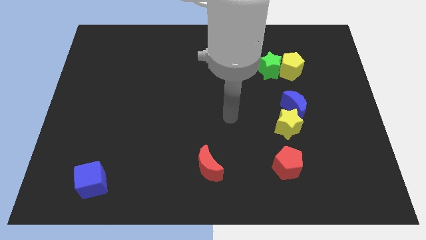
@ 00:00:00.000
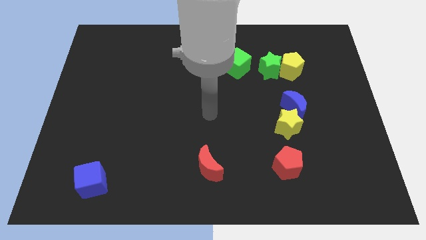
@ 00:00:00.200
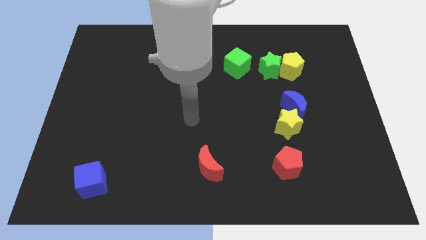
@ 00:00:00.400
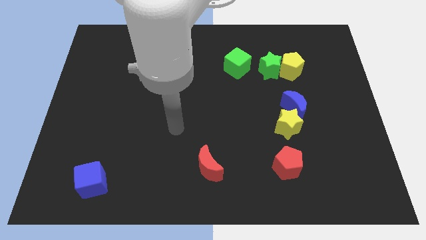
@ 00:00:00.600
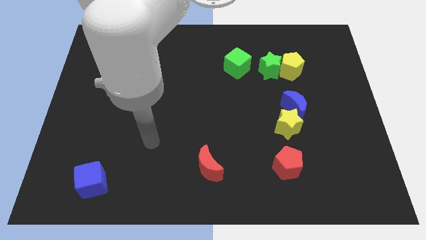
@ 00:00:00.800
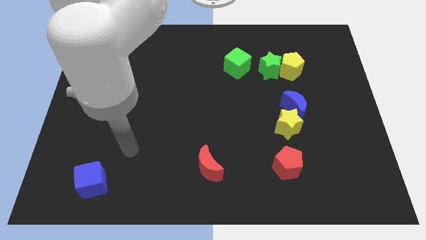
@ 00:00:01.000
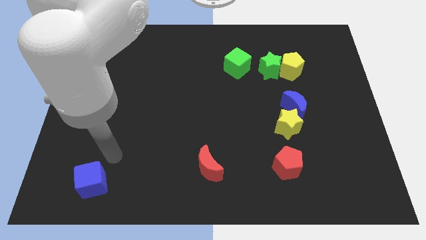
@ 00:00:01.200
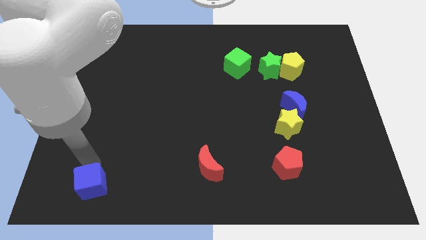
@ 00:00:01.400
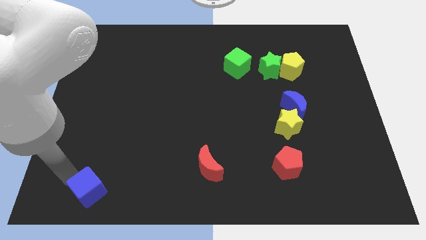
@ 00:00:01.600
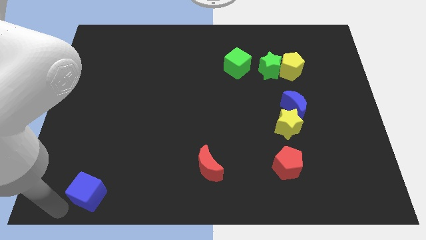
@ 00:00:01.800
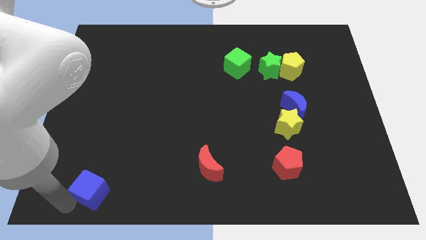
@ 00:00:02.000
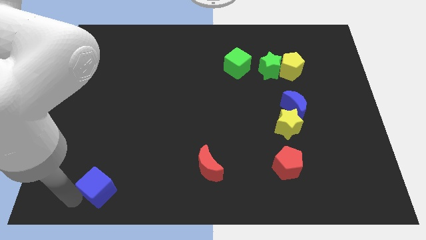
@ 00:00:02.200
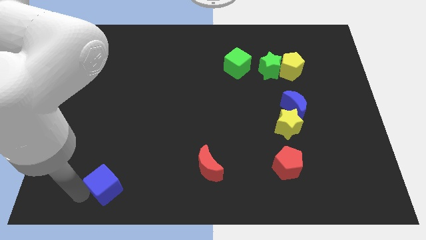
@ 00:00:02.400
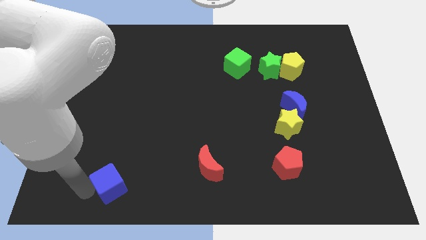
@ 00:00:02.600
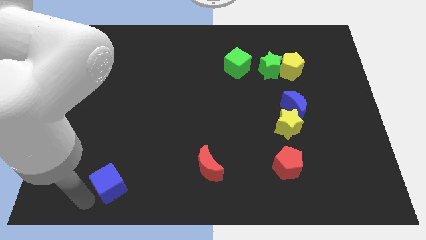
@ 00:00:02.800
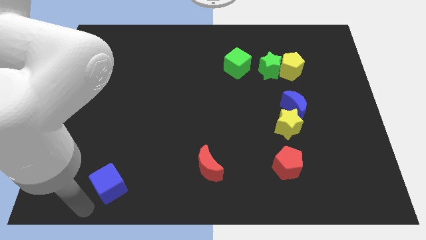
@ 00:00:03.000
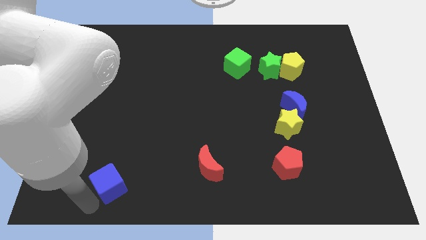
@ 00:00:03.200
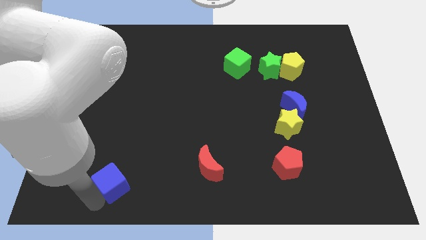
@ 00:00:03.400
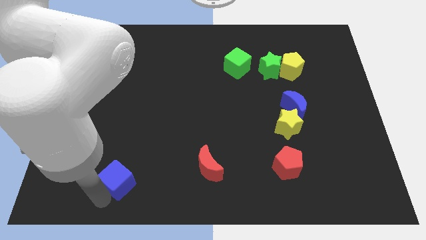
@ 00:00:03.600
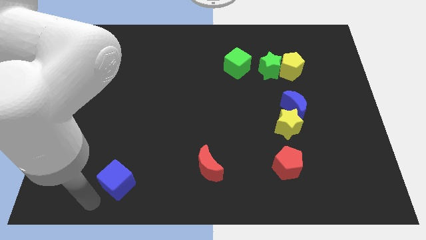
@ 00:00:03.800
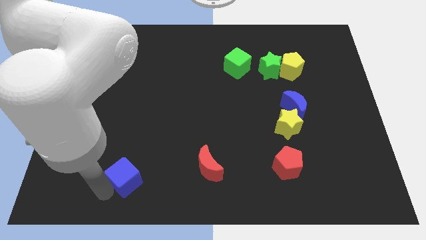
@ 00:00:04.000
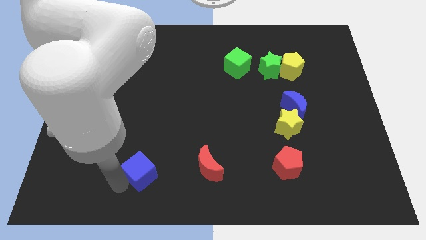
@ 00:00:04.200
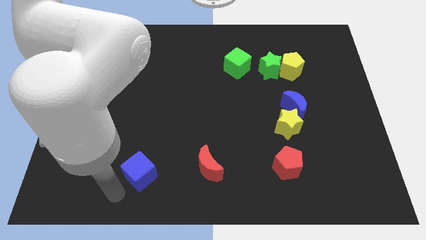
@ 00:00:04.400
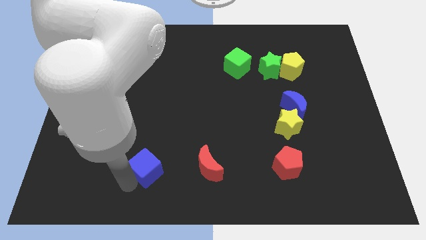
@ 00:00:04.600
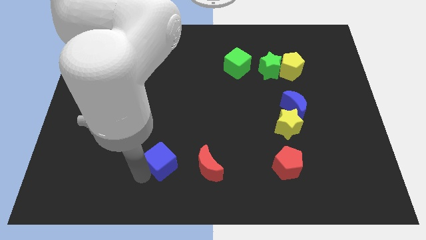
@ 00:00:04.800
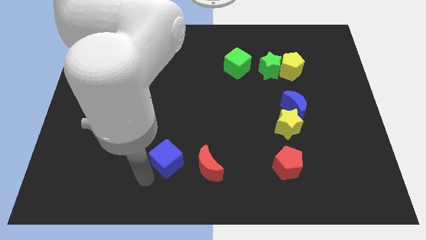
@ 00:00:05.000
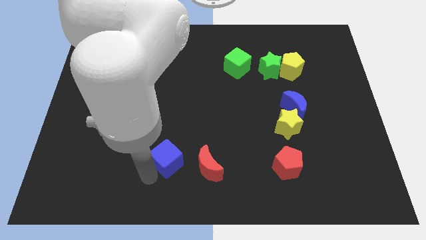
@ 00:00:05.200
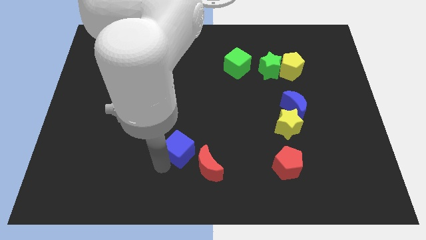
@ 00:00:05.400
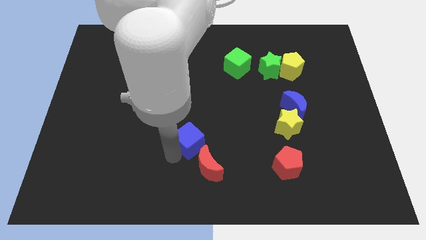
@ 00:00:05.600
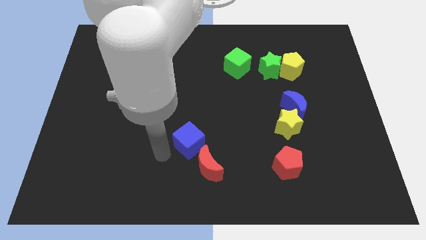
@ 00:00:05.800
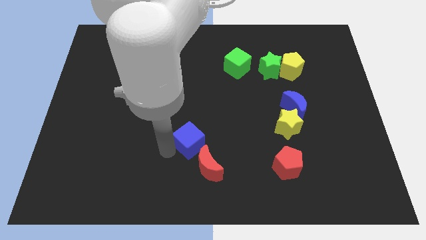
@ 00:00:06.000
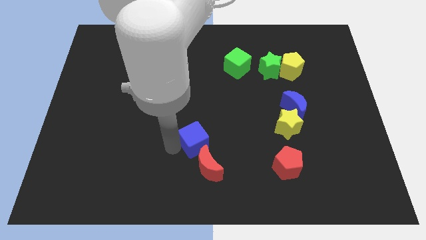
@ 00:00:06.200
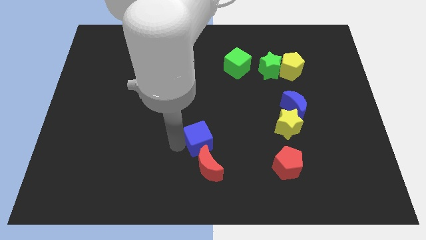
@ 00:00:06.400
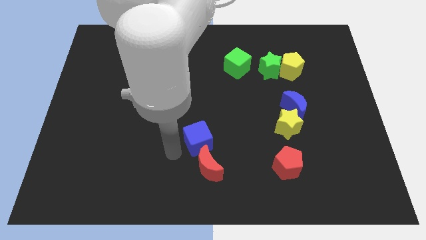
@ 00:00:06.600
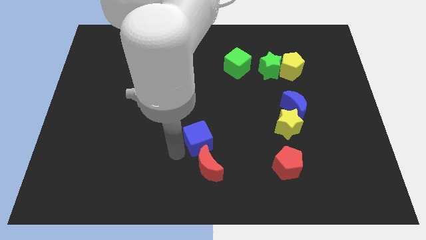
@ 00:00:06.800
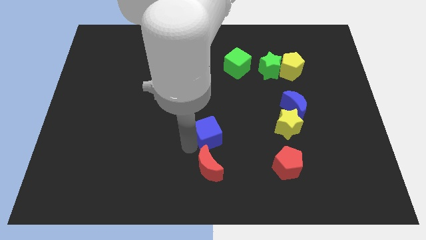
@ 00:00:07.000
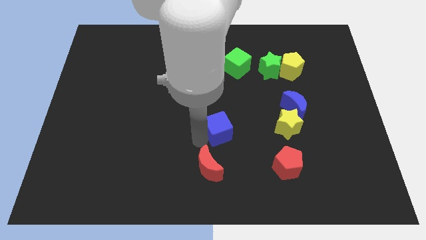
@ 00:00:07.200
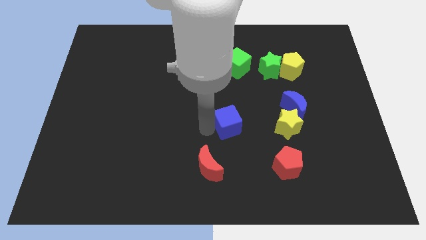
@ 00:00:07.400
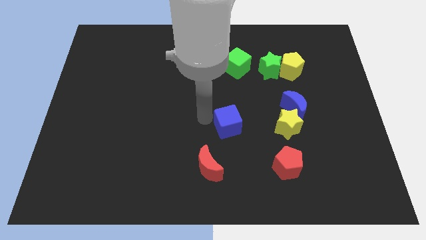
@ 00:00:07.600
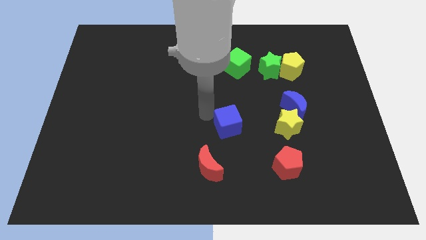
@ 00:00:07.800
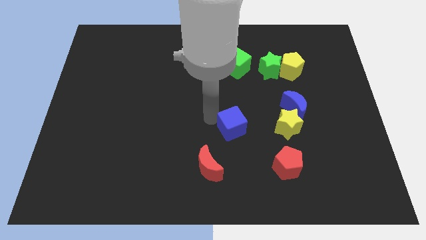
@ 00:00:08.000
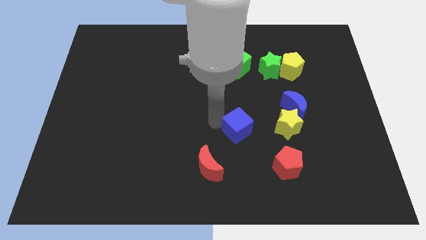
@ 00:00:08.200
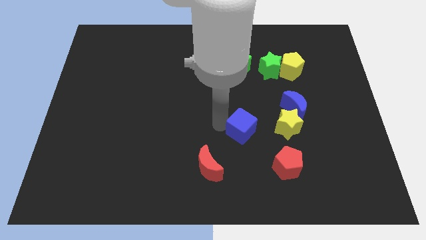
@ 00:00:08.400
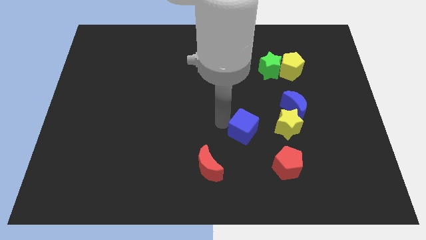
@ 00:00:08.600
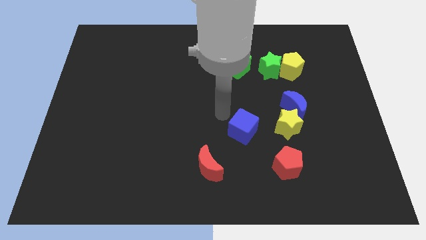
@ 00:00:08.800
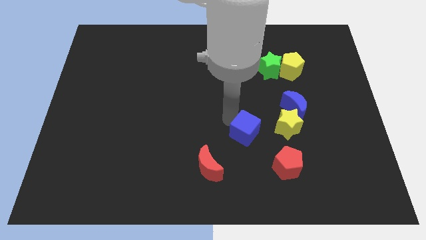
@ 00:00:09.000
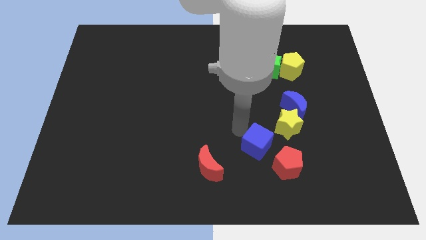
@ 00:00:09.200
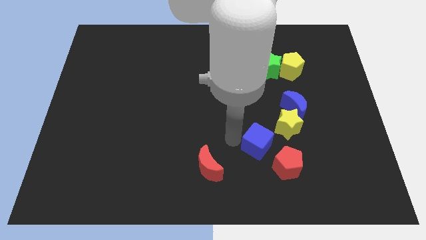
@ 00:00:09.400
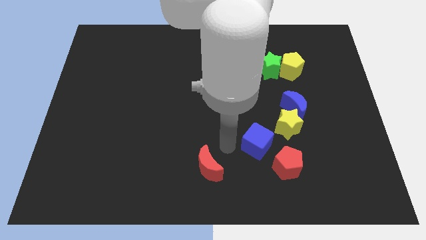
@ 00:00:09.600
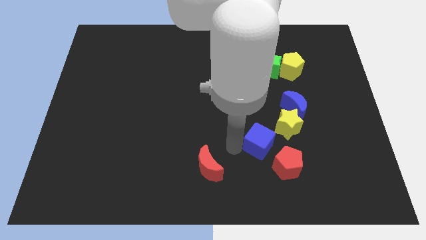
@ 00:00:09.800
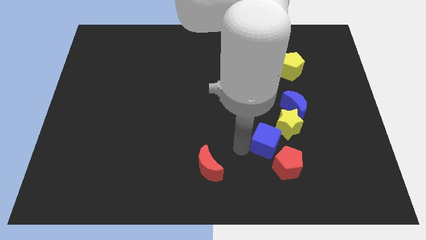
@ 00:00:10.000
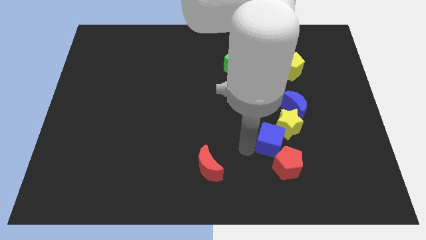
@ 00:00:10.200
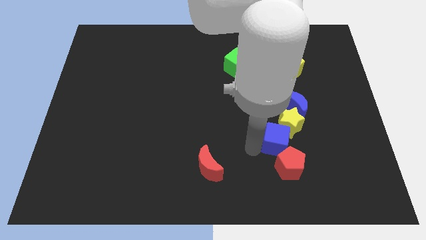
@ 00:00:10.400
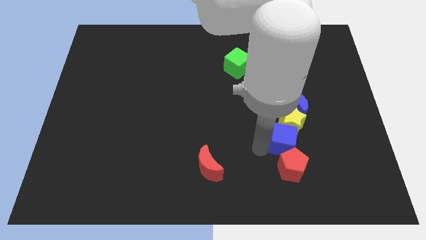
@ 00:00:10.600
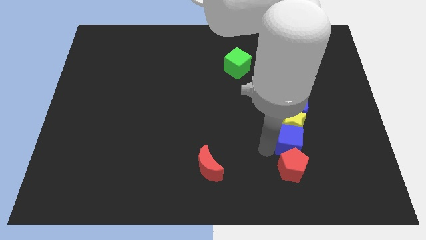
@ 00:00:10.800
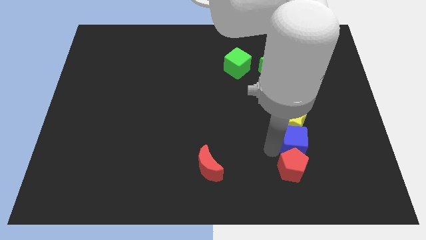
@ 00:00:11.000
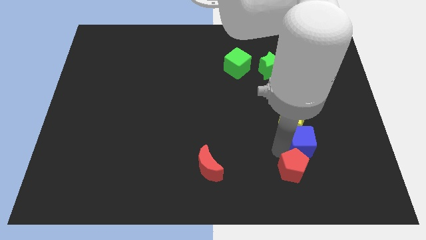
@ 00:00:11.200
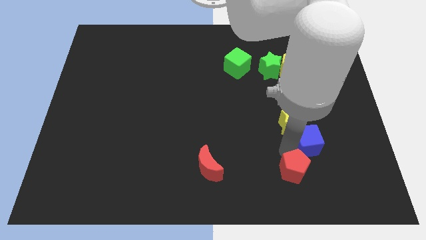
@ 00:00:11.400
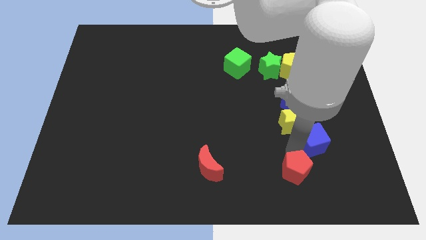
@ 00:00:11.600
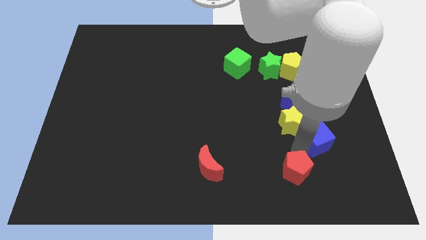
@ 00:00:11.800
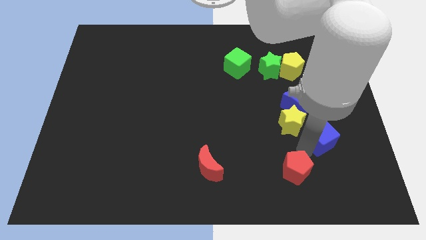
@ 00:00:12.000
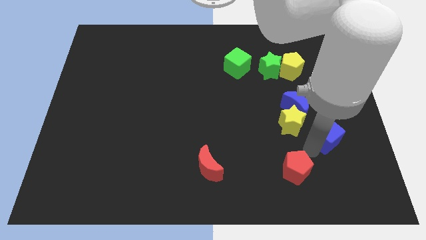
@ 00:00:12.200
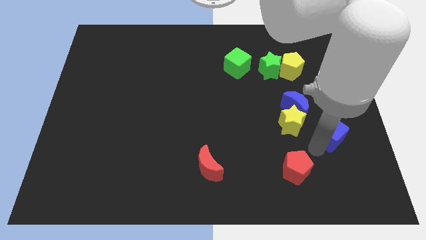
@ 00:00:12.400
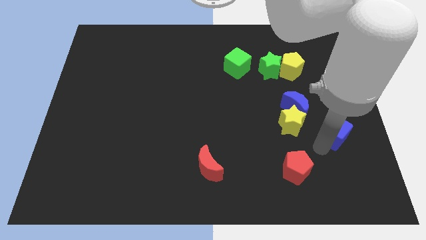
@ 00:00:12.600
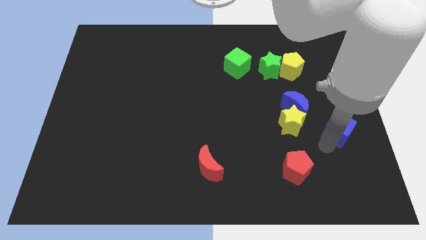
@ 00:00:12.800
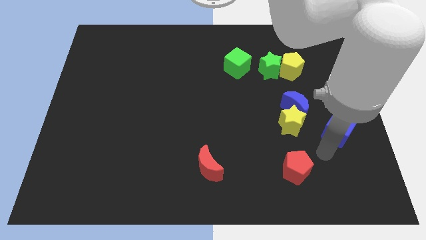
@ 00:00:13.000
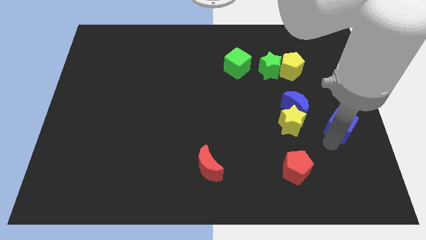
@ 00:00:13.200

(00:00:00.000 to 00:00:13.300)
push the blue cube to the right side

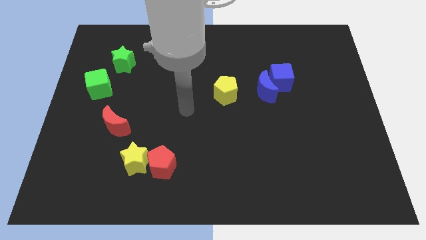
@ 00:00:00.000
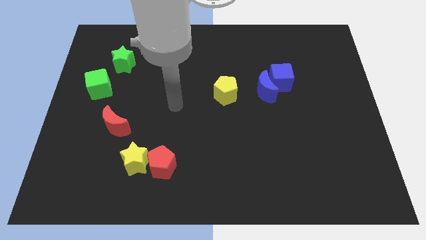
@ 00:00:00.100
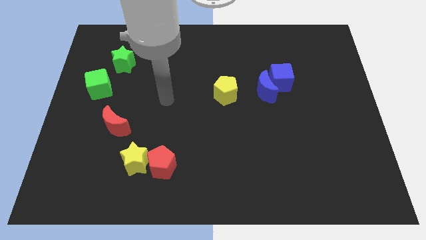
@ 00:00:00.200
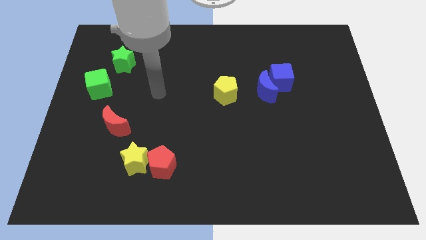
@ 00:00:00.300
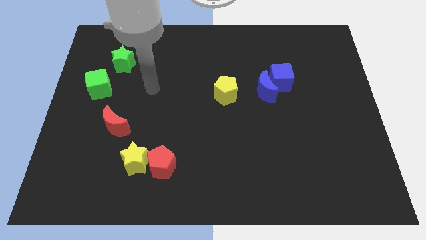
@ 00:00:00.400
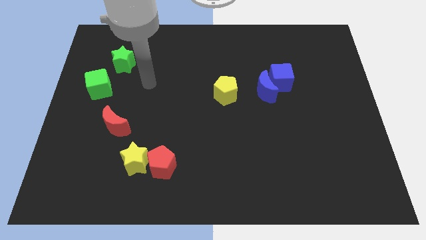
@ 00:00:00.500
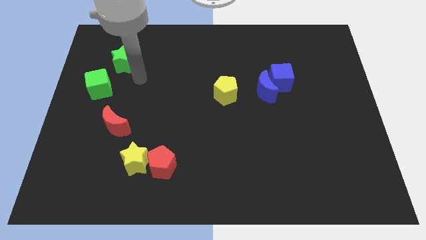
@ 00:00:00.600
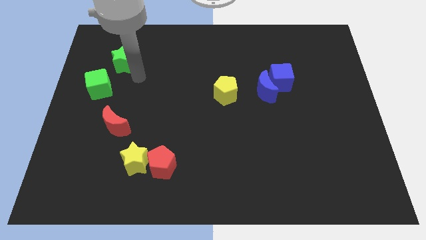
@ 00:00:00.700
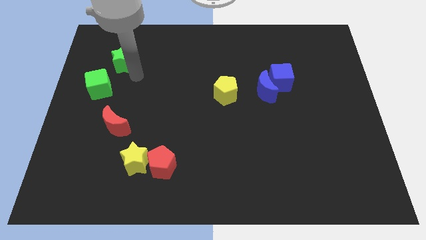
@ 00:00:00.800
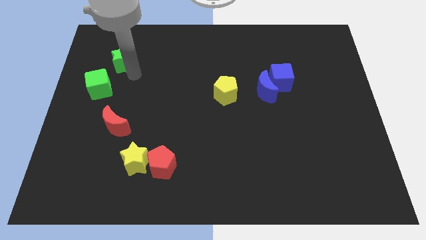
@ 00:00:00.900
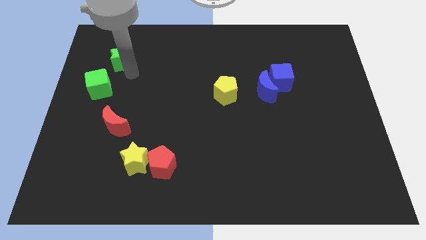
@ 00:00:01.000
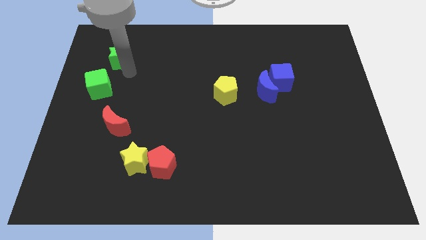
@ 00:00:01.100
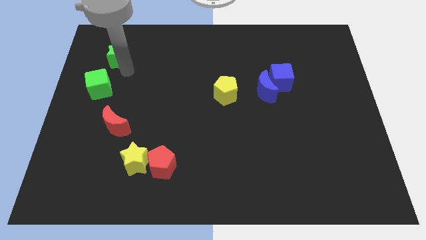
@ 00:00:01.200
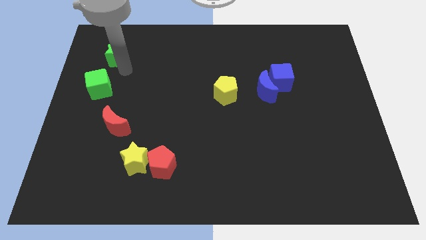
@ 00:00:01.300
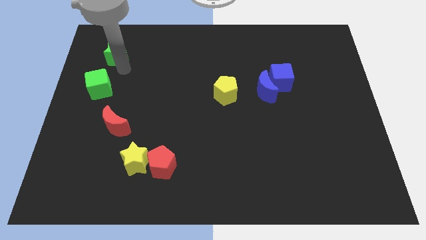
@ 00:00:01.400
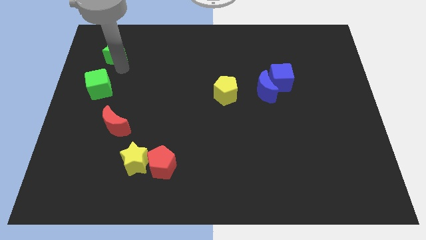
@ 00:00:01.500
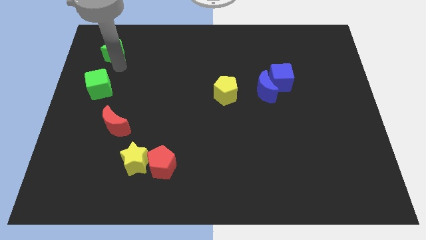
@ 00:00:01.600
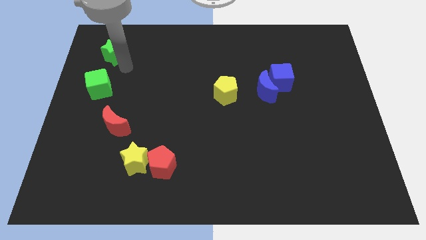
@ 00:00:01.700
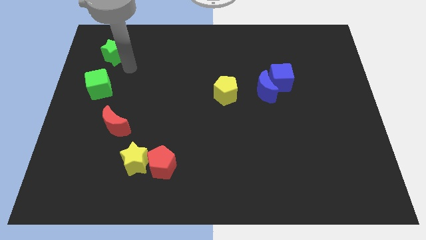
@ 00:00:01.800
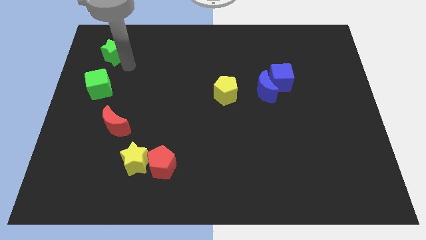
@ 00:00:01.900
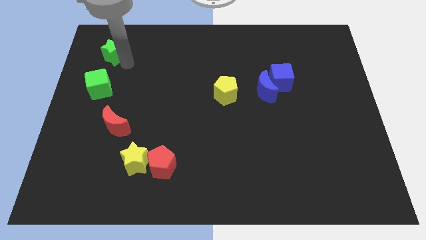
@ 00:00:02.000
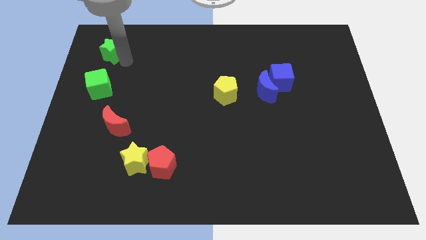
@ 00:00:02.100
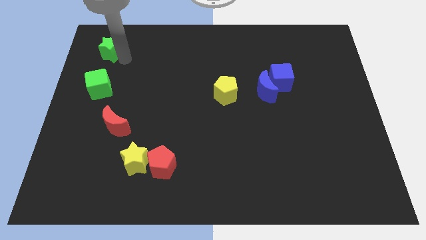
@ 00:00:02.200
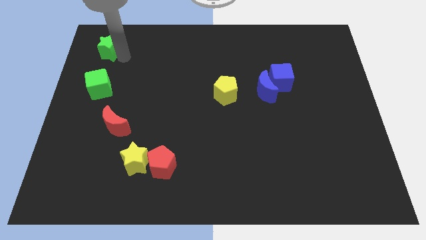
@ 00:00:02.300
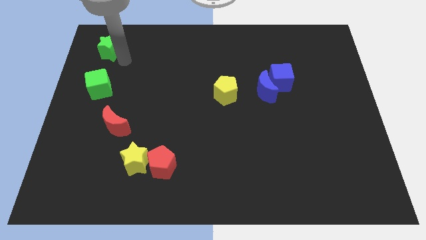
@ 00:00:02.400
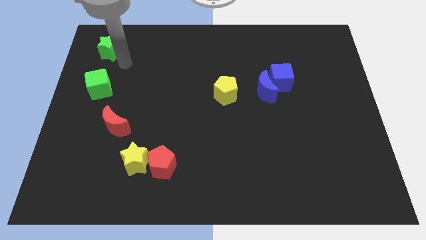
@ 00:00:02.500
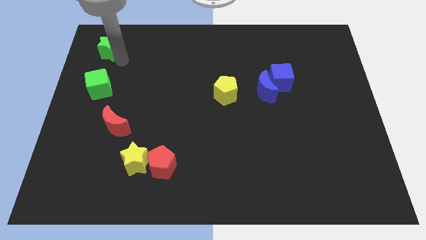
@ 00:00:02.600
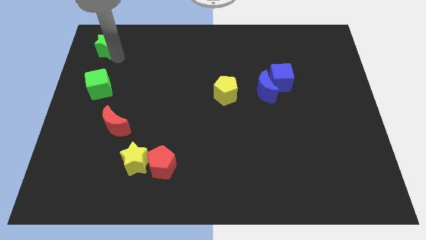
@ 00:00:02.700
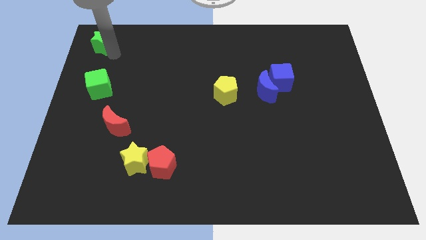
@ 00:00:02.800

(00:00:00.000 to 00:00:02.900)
slide the green star to the upper left corner
